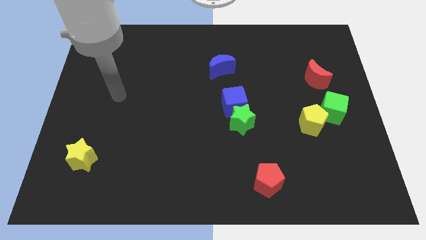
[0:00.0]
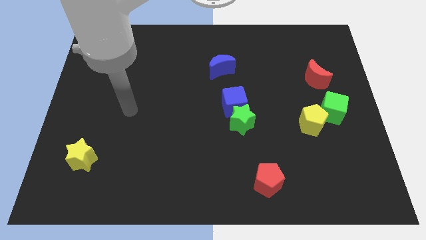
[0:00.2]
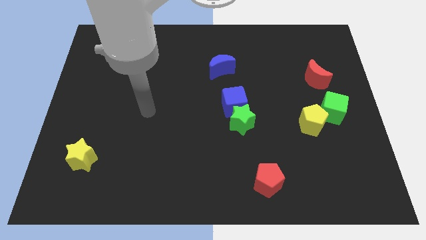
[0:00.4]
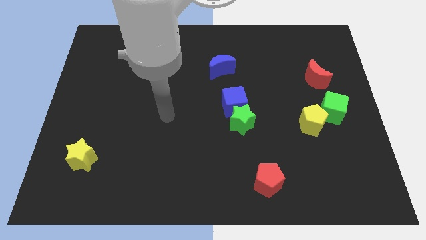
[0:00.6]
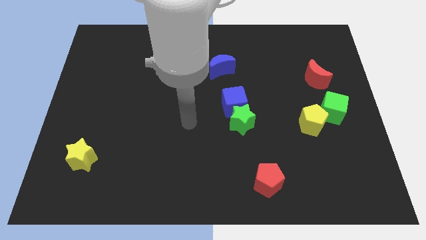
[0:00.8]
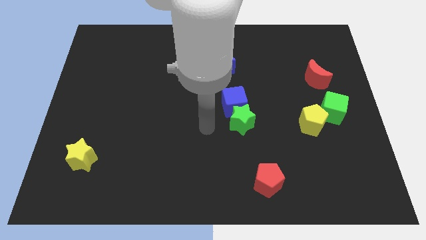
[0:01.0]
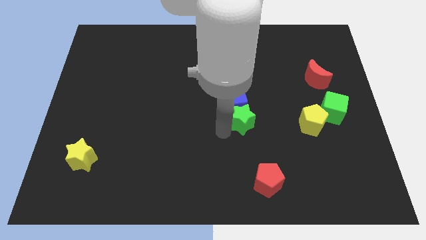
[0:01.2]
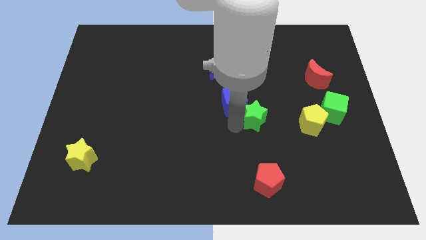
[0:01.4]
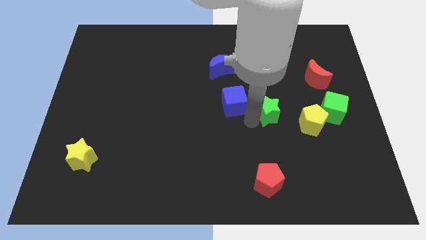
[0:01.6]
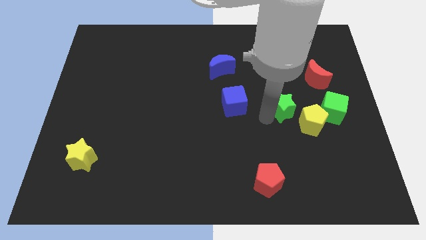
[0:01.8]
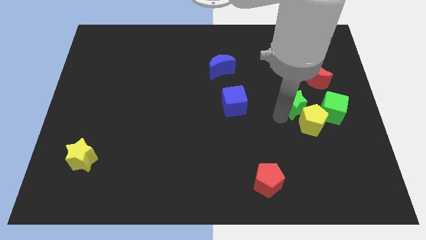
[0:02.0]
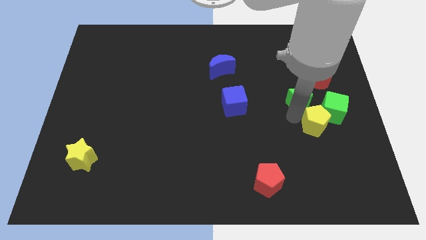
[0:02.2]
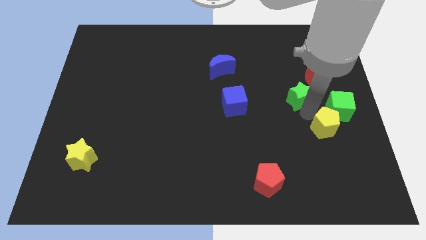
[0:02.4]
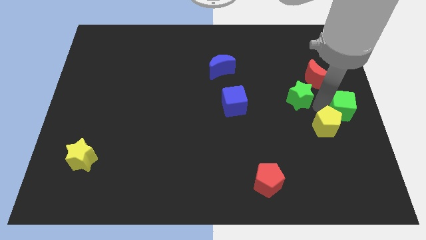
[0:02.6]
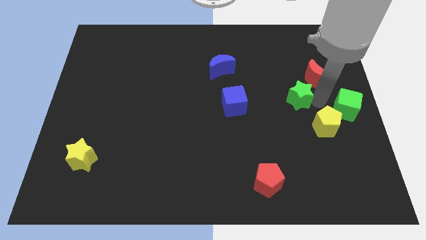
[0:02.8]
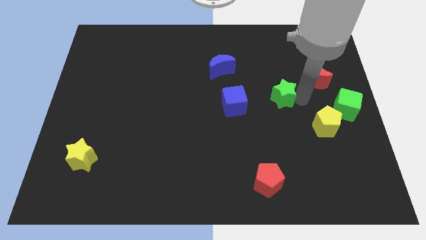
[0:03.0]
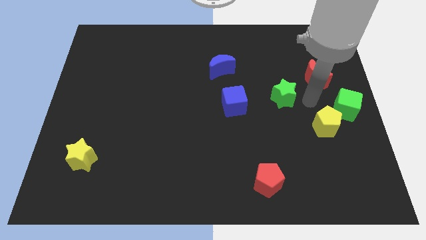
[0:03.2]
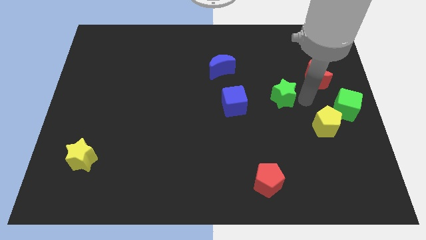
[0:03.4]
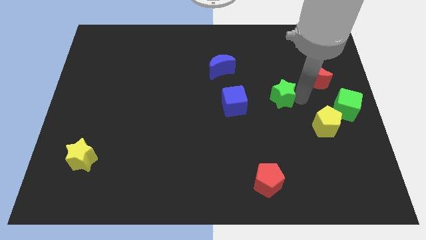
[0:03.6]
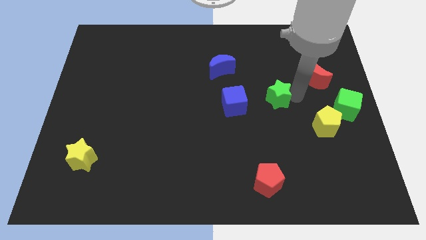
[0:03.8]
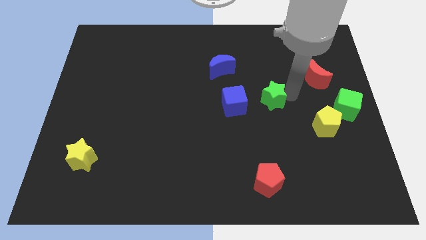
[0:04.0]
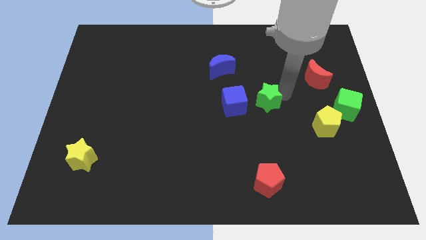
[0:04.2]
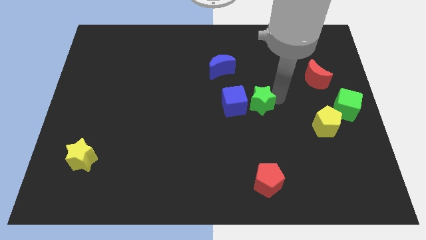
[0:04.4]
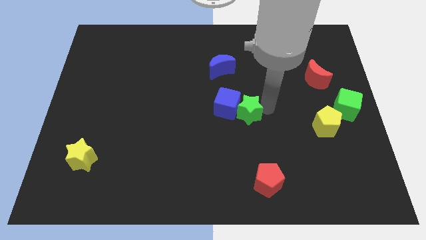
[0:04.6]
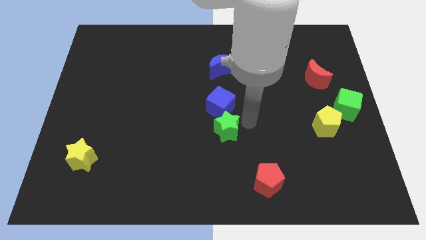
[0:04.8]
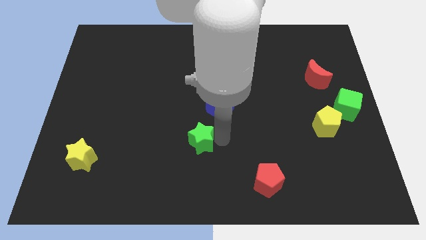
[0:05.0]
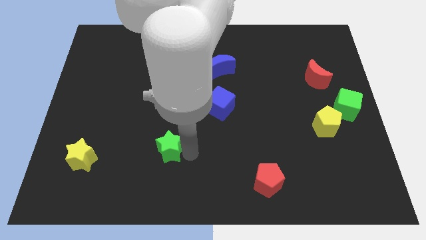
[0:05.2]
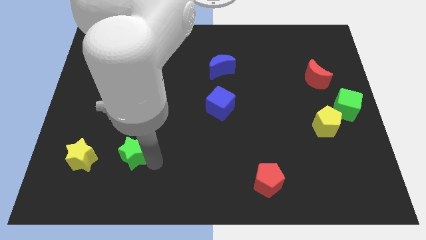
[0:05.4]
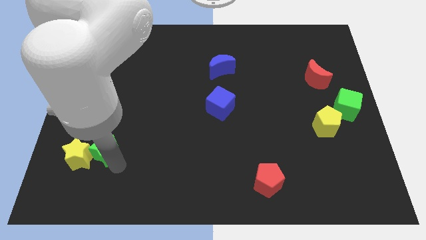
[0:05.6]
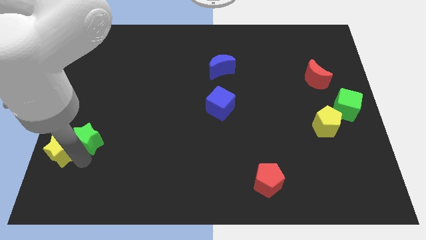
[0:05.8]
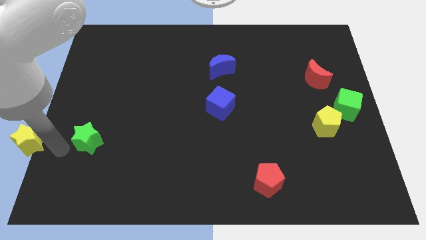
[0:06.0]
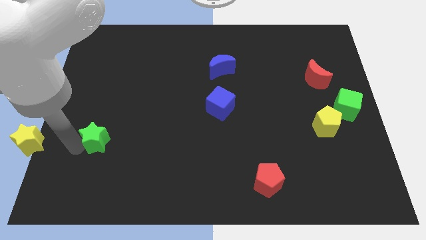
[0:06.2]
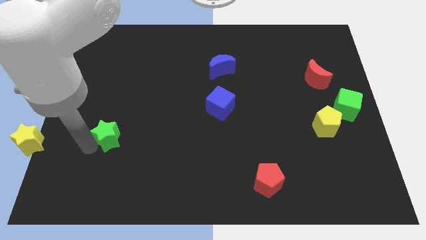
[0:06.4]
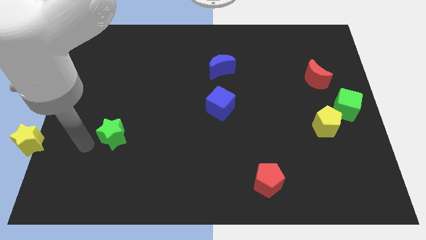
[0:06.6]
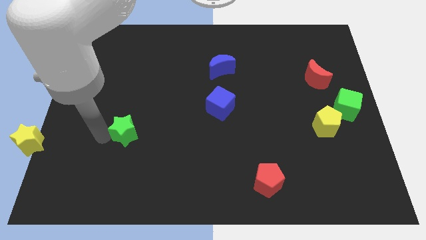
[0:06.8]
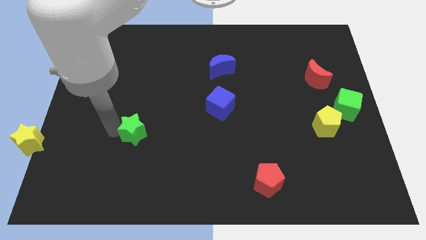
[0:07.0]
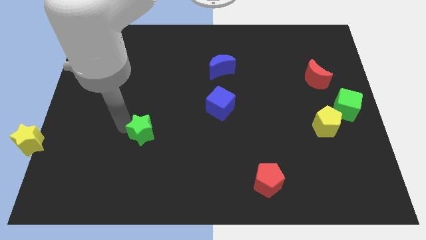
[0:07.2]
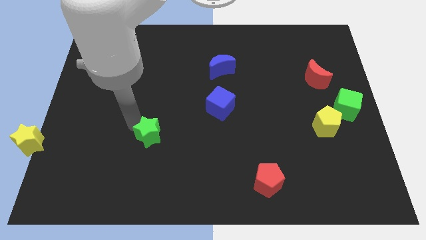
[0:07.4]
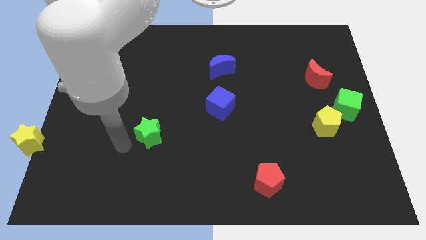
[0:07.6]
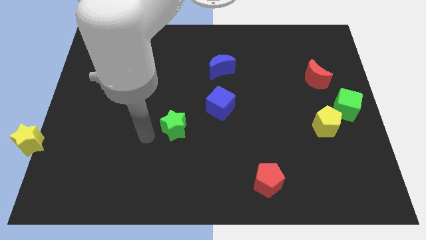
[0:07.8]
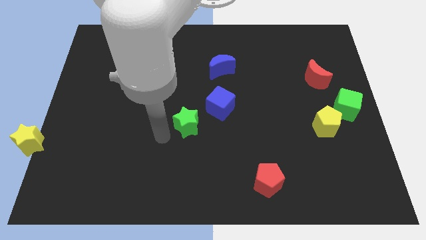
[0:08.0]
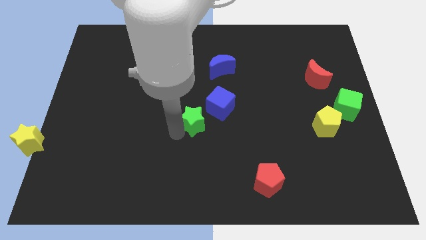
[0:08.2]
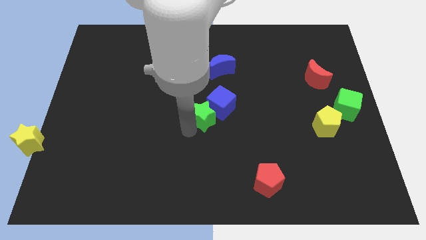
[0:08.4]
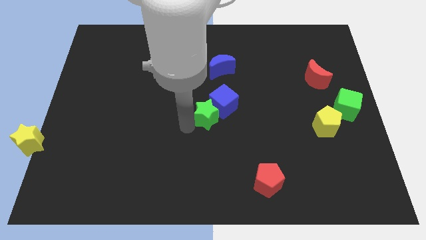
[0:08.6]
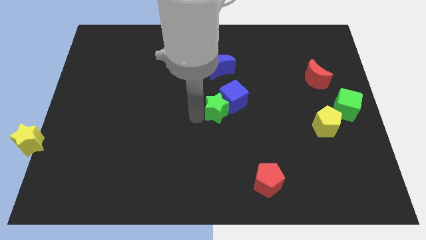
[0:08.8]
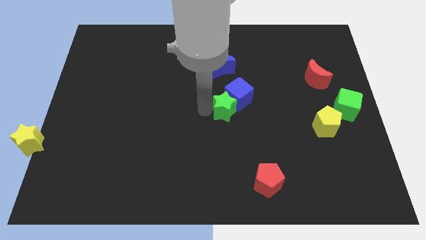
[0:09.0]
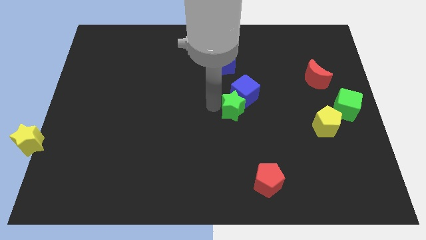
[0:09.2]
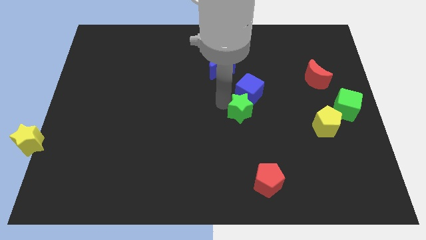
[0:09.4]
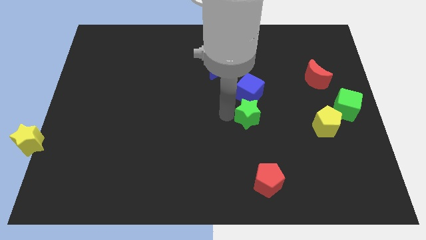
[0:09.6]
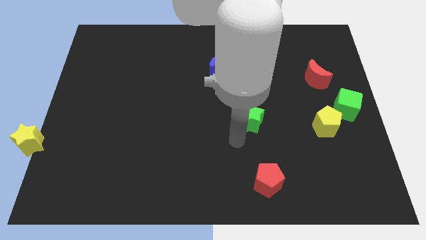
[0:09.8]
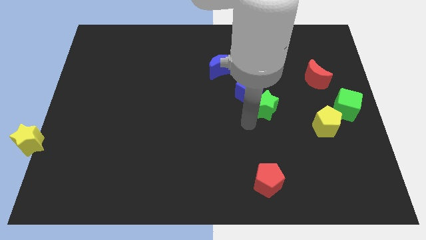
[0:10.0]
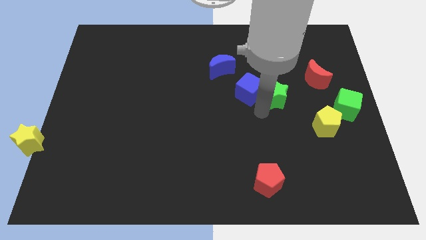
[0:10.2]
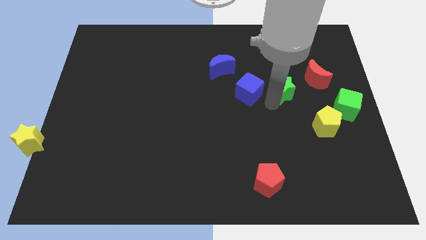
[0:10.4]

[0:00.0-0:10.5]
slide the green star left of the red moon

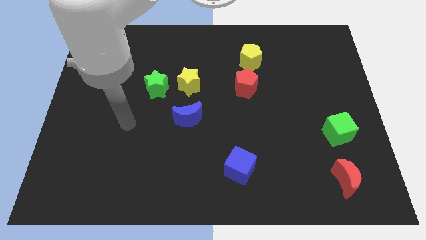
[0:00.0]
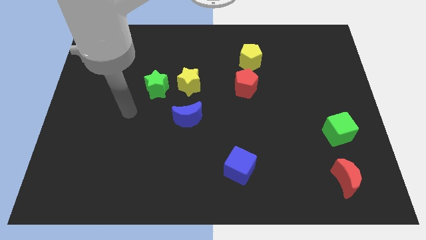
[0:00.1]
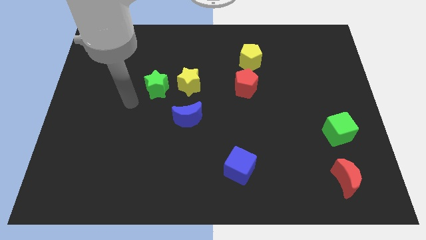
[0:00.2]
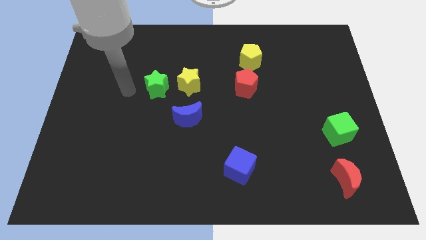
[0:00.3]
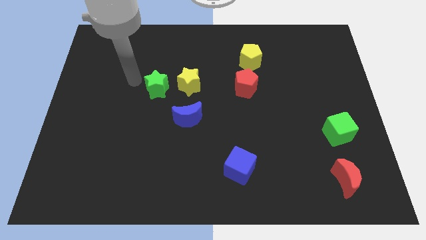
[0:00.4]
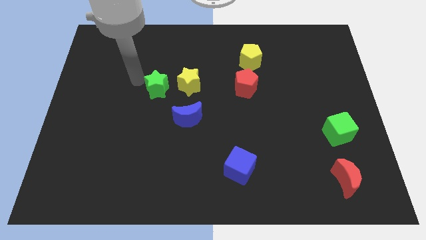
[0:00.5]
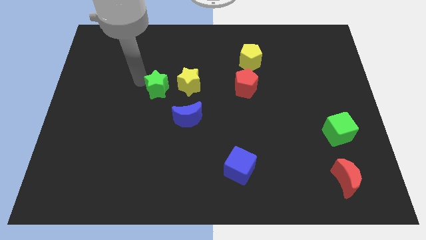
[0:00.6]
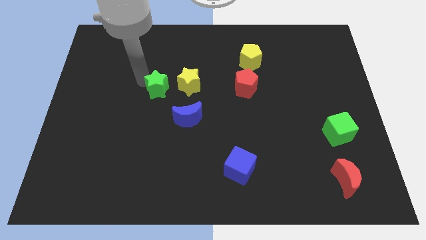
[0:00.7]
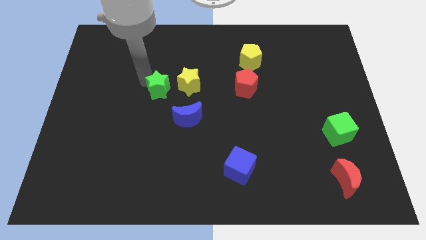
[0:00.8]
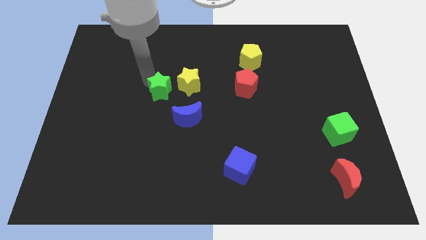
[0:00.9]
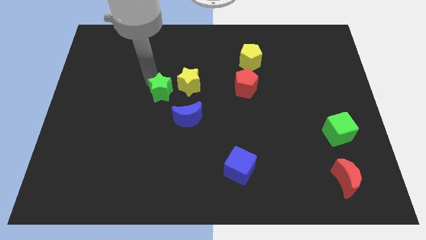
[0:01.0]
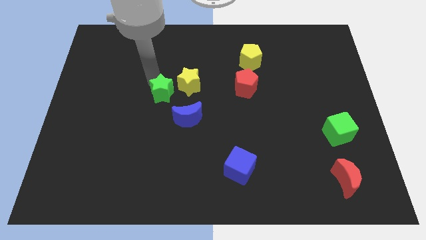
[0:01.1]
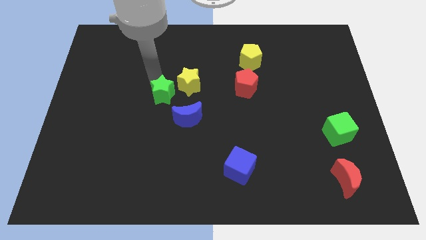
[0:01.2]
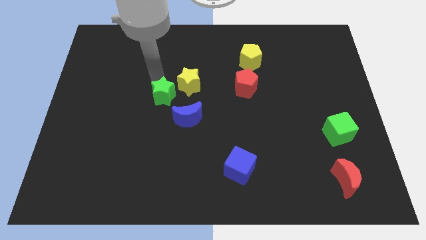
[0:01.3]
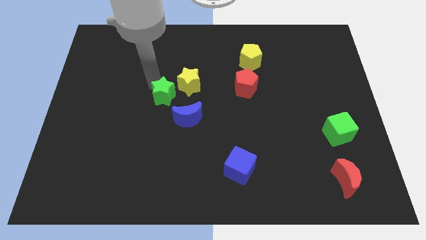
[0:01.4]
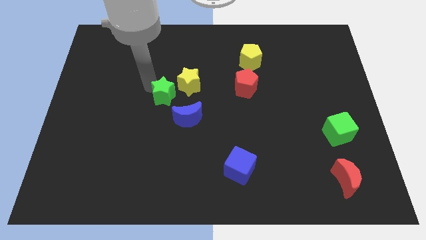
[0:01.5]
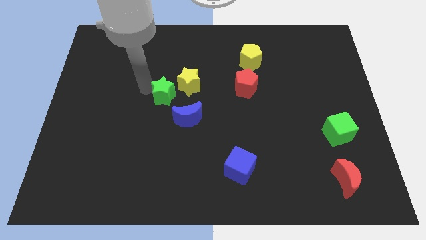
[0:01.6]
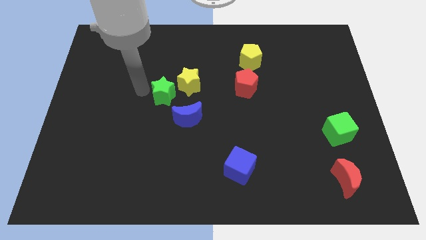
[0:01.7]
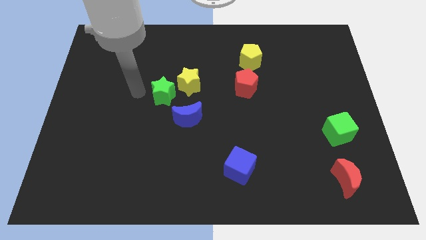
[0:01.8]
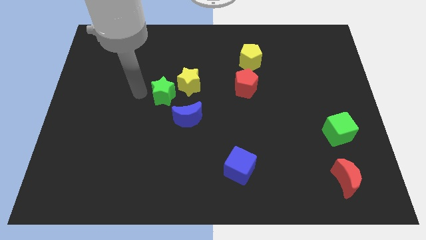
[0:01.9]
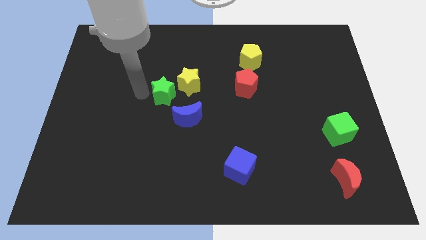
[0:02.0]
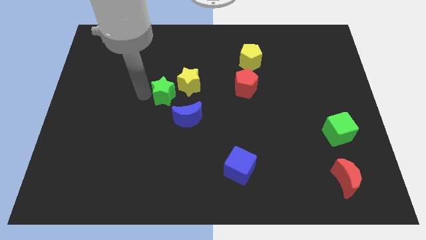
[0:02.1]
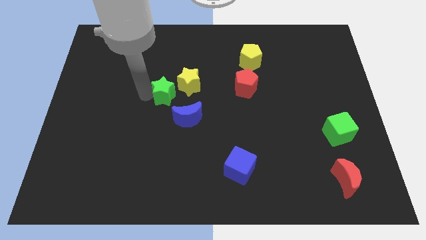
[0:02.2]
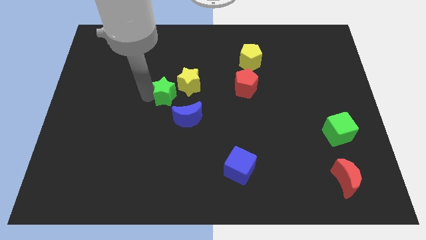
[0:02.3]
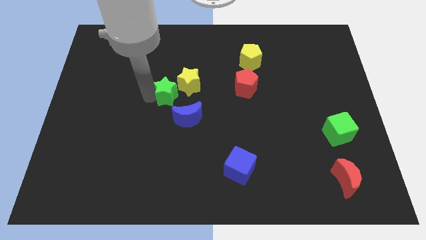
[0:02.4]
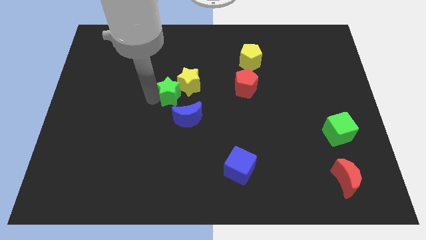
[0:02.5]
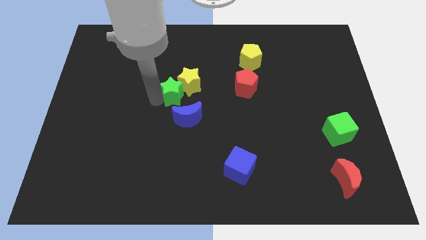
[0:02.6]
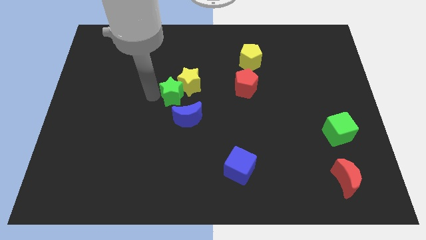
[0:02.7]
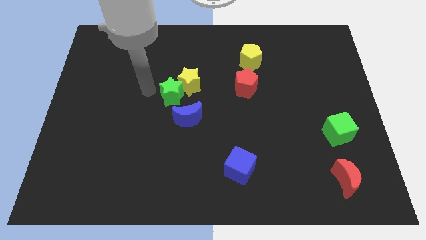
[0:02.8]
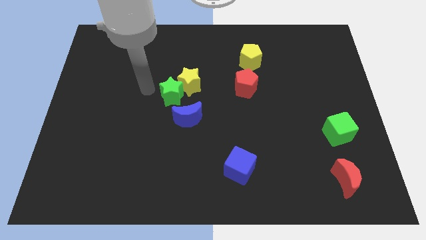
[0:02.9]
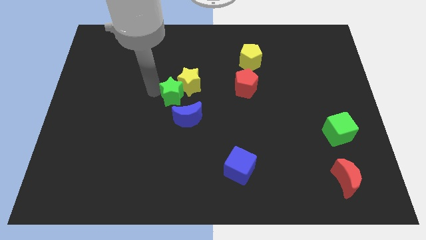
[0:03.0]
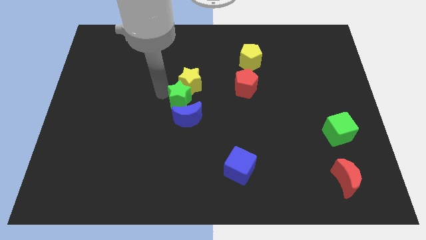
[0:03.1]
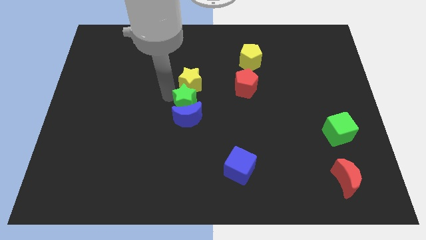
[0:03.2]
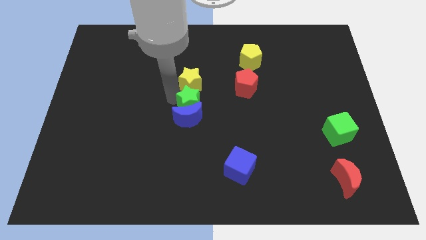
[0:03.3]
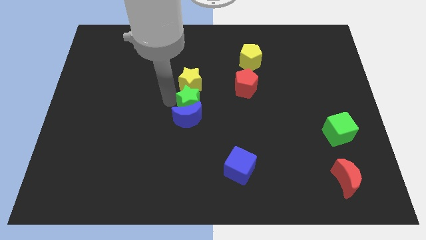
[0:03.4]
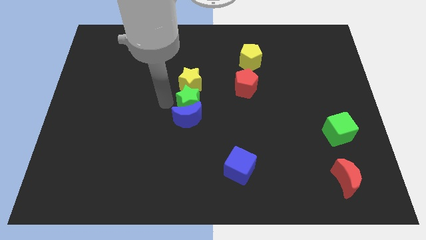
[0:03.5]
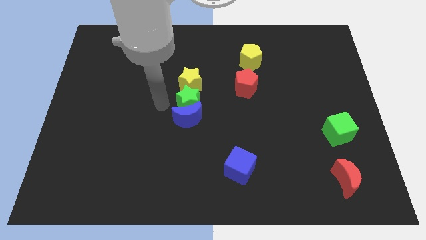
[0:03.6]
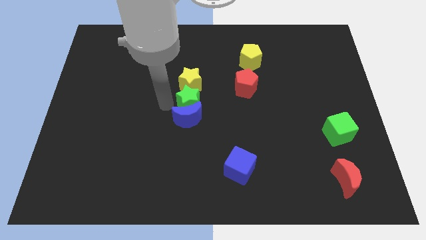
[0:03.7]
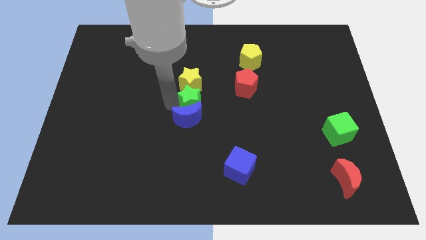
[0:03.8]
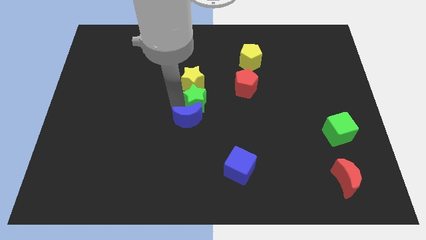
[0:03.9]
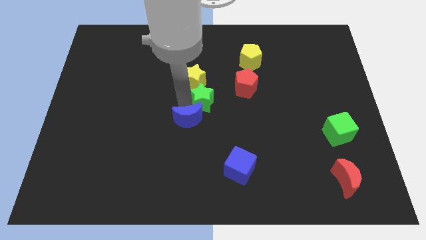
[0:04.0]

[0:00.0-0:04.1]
push the green star to the bottom left side of the red pentagon
